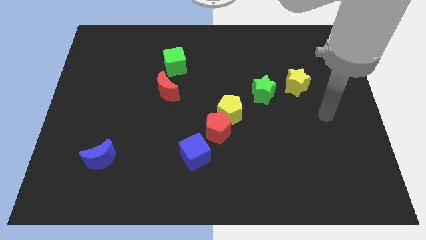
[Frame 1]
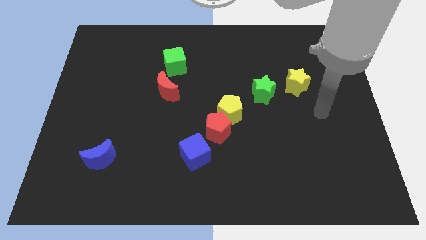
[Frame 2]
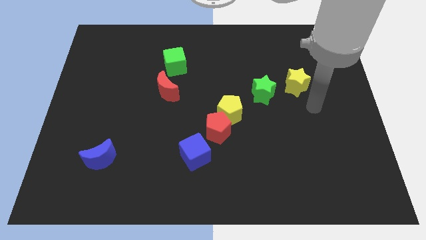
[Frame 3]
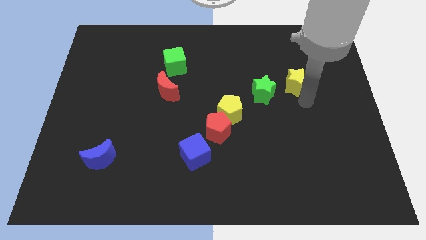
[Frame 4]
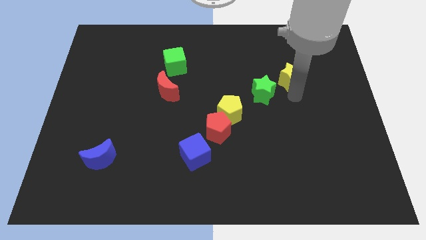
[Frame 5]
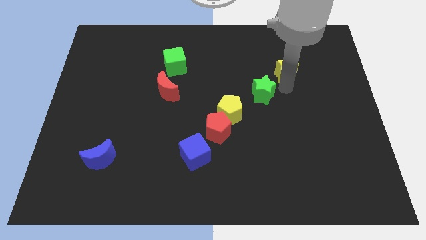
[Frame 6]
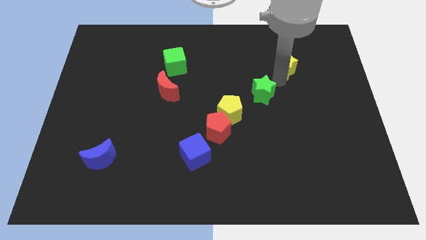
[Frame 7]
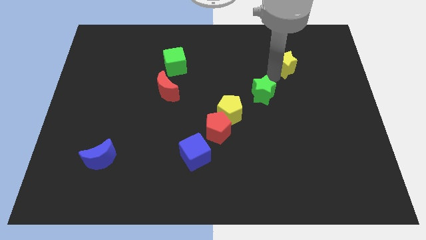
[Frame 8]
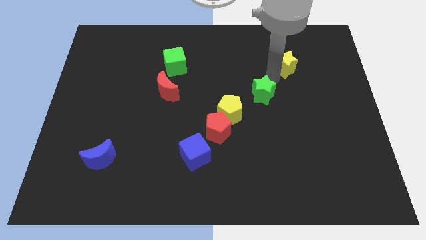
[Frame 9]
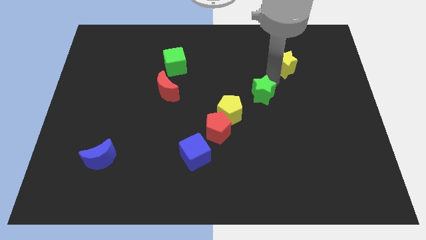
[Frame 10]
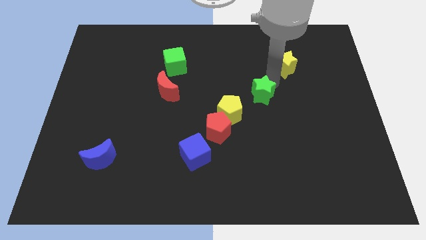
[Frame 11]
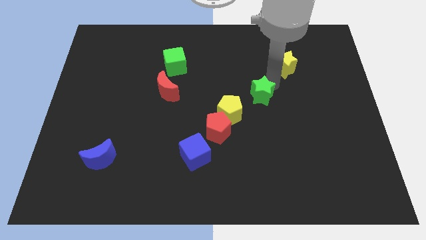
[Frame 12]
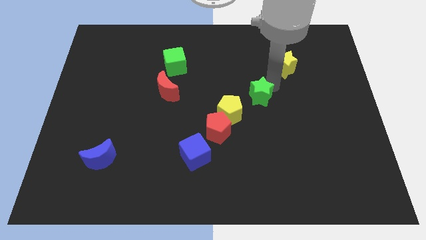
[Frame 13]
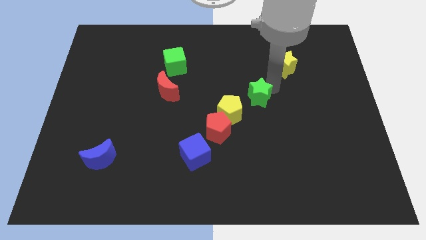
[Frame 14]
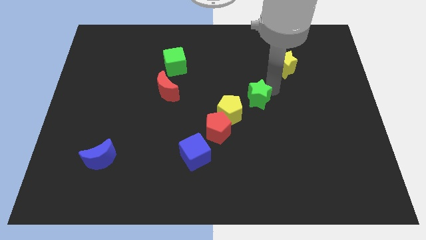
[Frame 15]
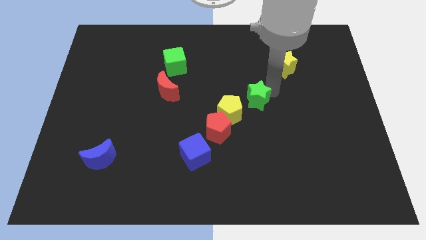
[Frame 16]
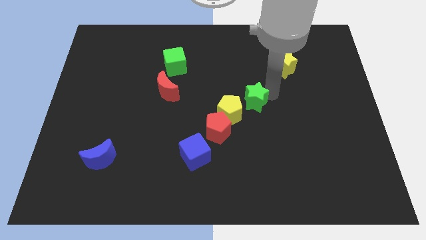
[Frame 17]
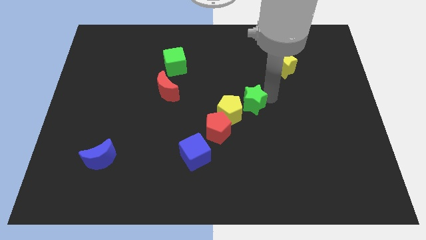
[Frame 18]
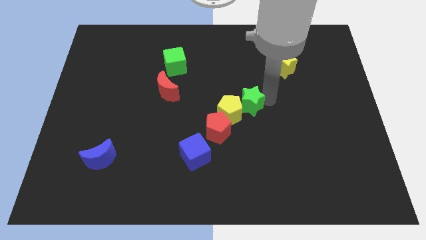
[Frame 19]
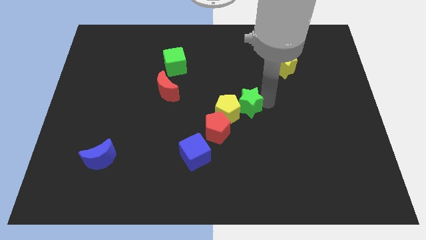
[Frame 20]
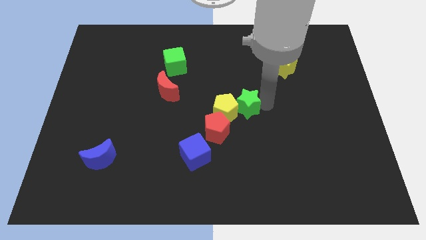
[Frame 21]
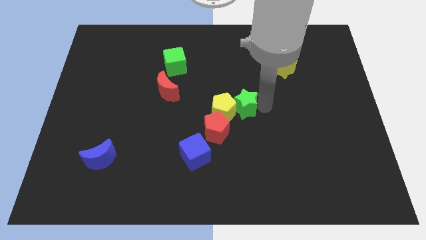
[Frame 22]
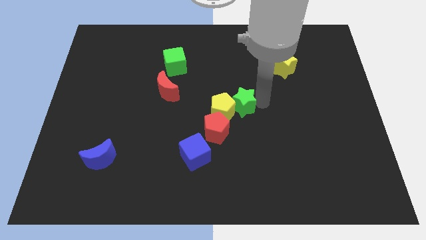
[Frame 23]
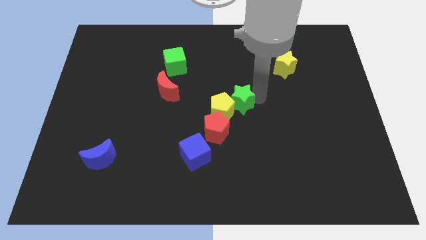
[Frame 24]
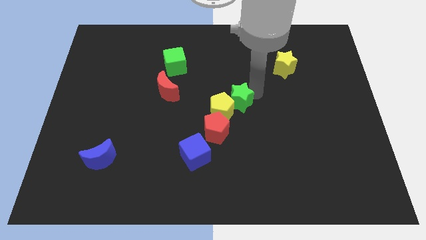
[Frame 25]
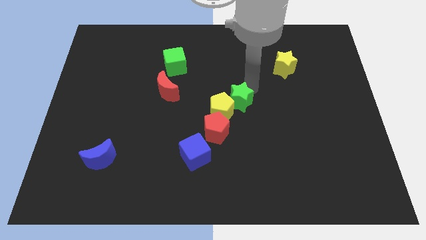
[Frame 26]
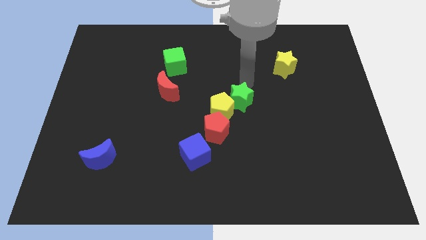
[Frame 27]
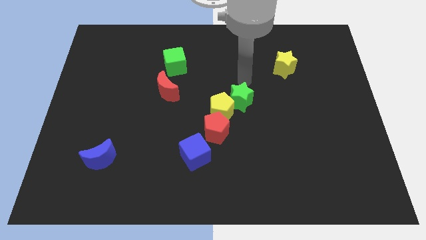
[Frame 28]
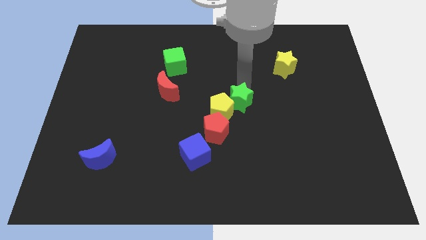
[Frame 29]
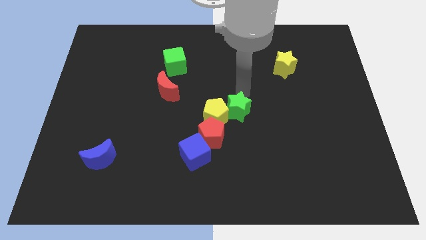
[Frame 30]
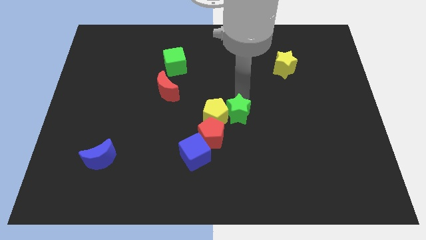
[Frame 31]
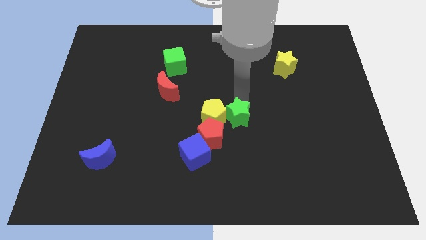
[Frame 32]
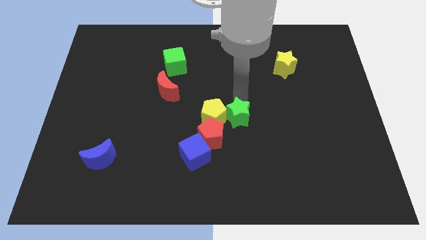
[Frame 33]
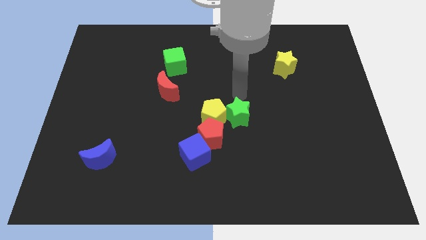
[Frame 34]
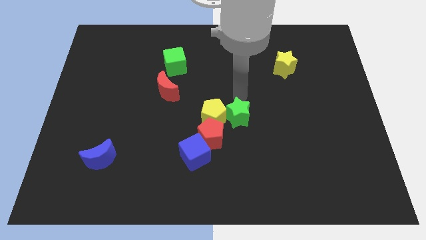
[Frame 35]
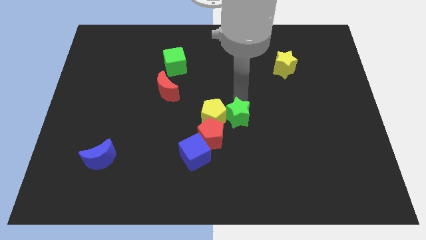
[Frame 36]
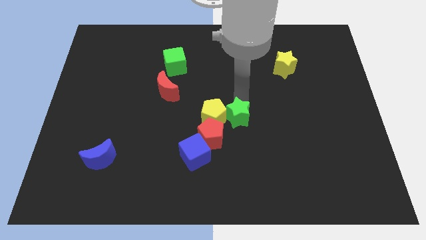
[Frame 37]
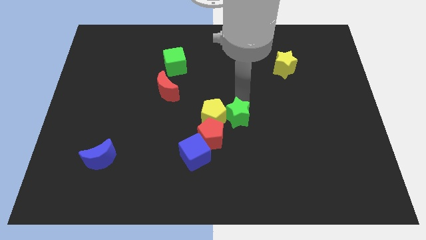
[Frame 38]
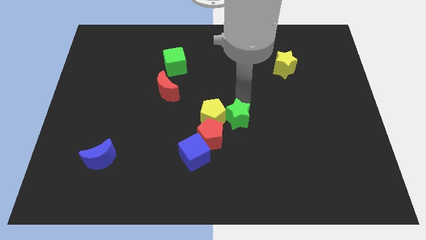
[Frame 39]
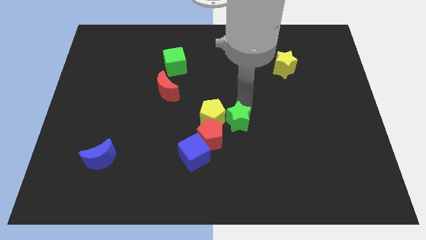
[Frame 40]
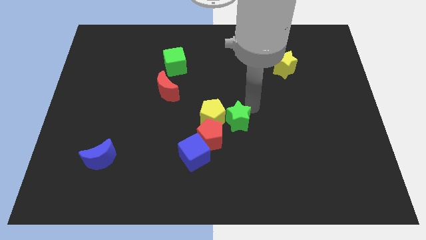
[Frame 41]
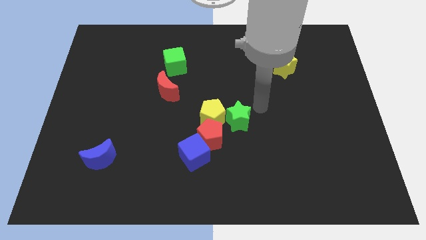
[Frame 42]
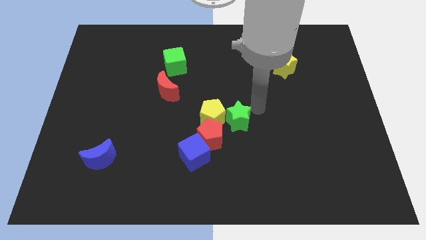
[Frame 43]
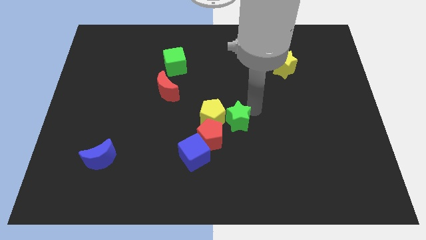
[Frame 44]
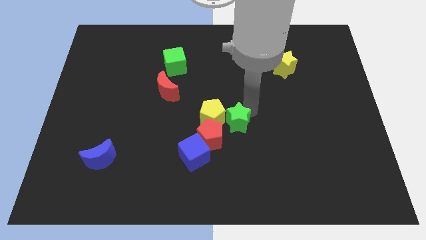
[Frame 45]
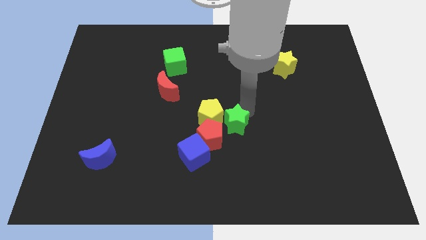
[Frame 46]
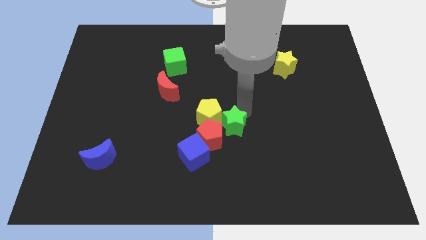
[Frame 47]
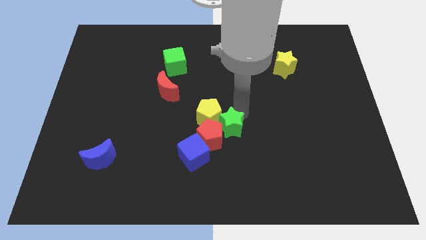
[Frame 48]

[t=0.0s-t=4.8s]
push the green star to the red pentagon

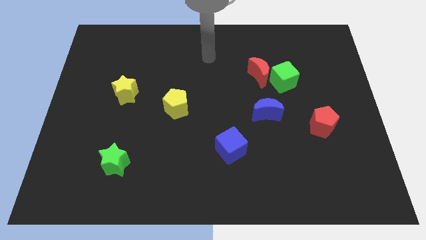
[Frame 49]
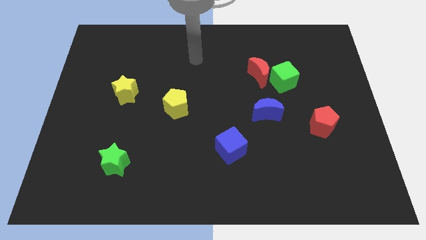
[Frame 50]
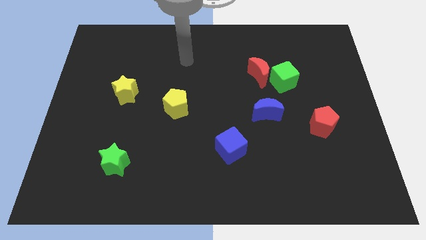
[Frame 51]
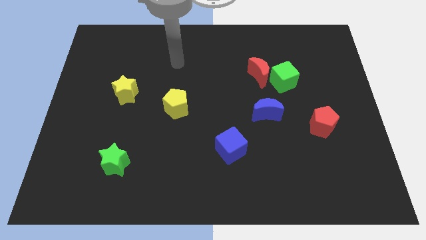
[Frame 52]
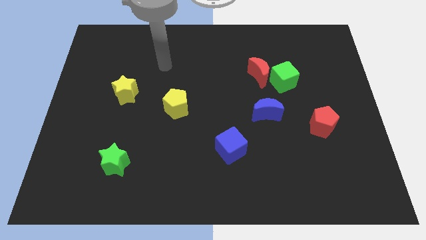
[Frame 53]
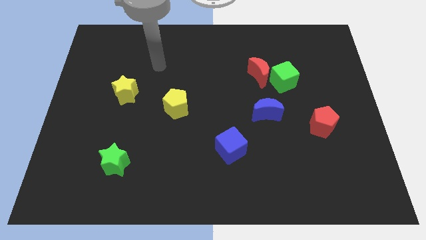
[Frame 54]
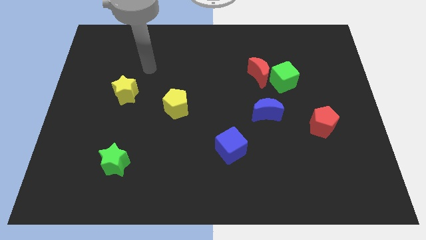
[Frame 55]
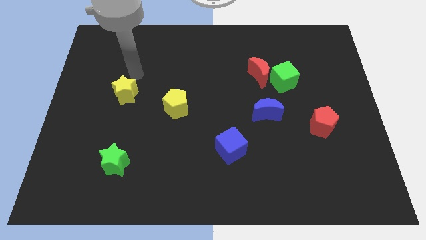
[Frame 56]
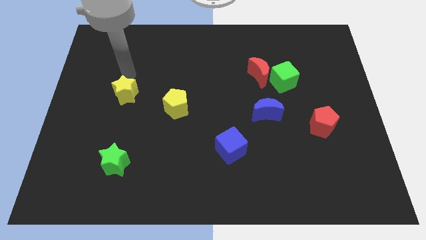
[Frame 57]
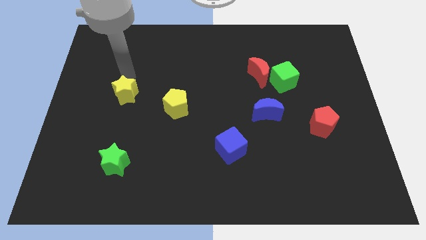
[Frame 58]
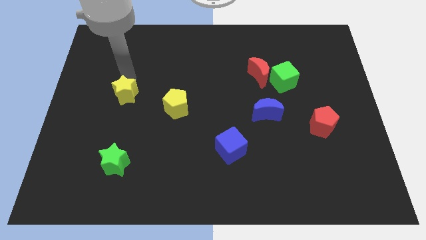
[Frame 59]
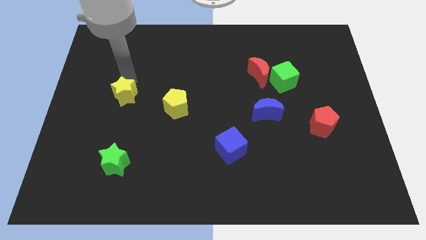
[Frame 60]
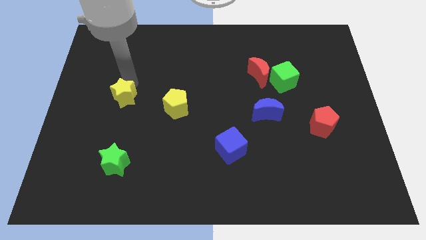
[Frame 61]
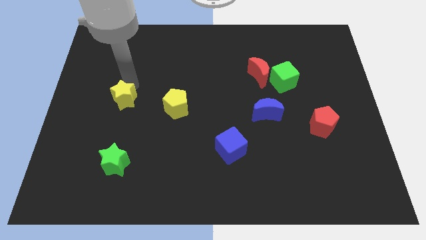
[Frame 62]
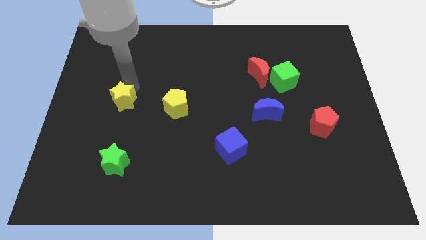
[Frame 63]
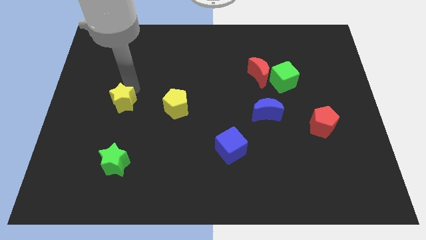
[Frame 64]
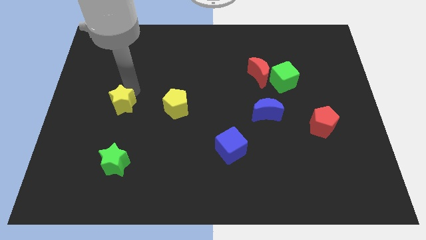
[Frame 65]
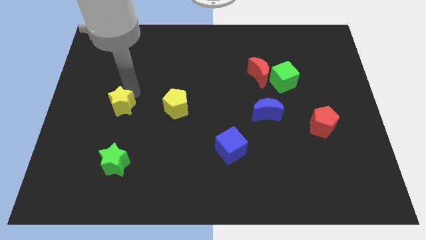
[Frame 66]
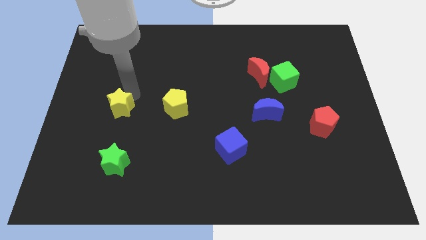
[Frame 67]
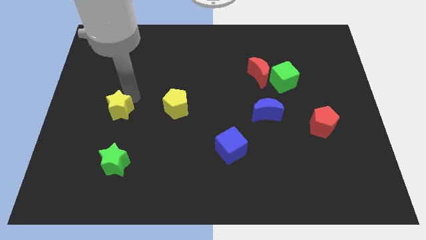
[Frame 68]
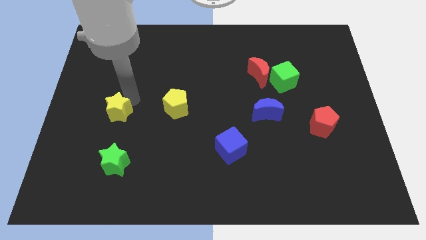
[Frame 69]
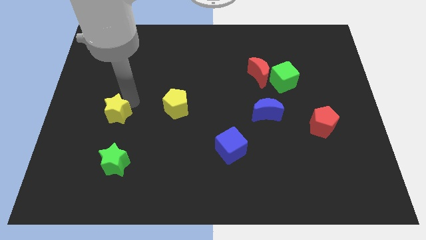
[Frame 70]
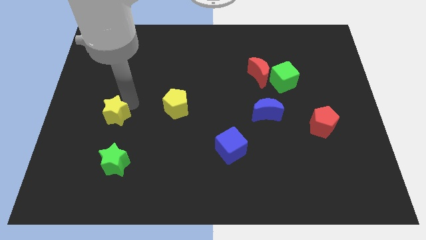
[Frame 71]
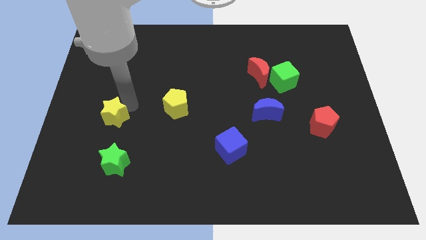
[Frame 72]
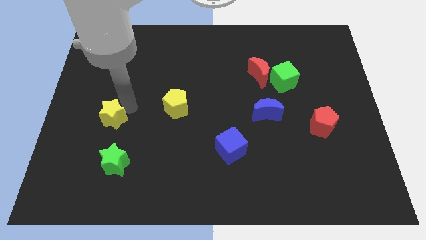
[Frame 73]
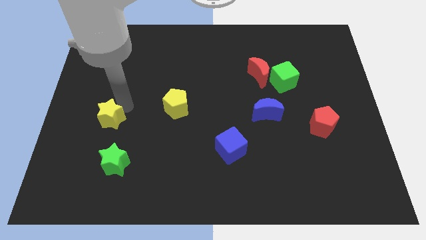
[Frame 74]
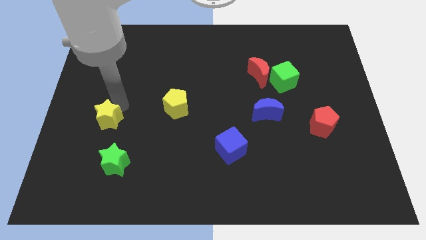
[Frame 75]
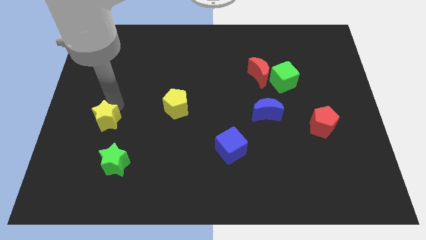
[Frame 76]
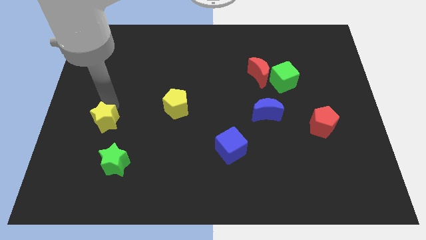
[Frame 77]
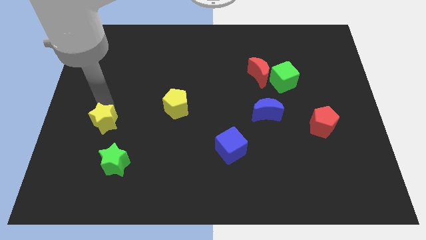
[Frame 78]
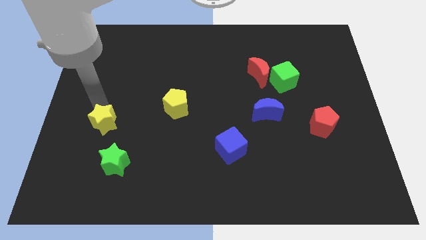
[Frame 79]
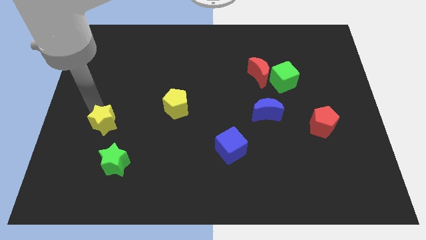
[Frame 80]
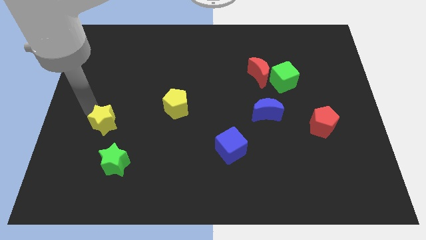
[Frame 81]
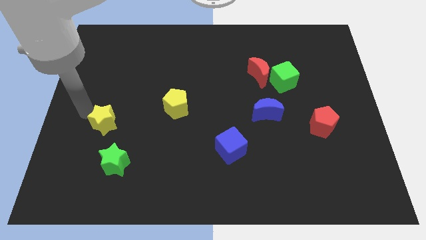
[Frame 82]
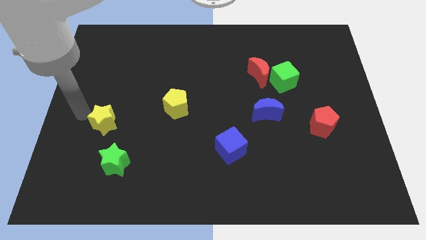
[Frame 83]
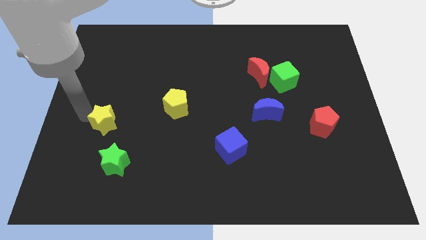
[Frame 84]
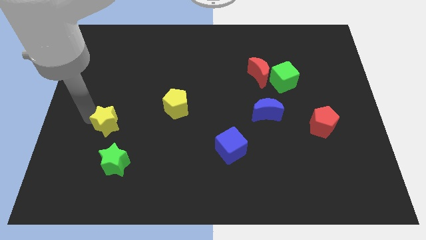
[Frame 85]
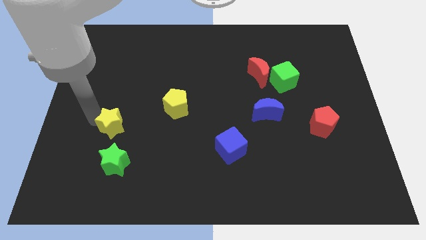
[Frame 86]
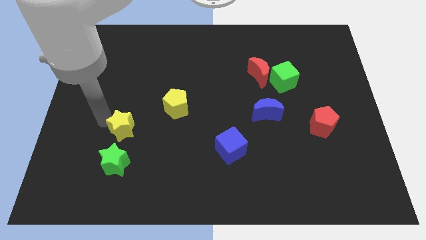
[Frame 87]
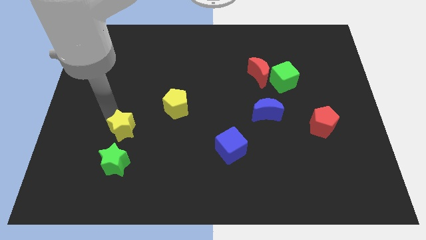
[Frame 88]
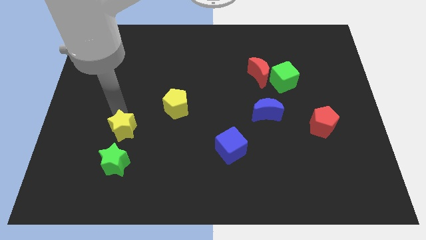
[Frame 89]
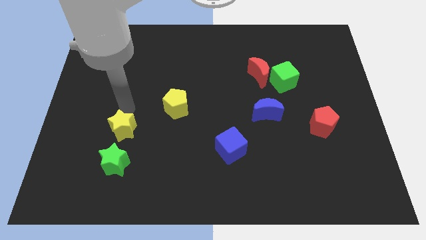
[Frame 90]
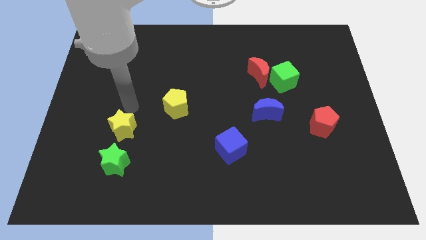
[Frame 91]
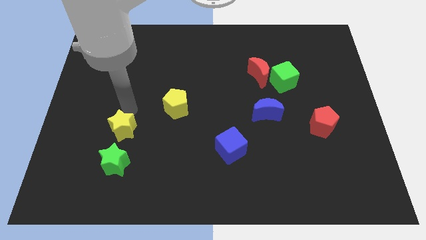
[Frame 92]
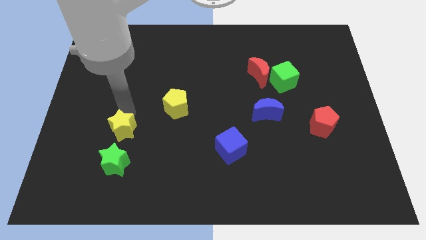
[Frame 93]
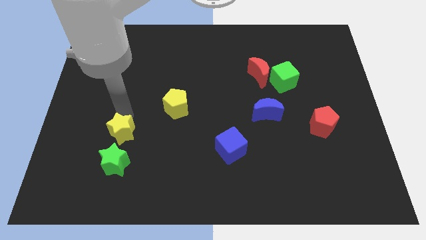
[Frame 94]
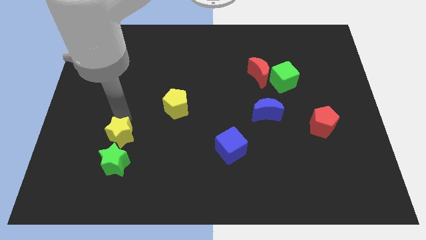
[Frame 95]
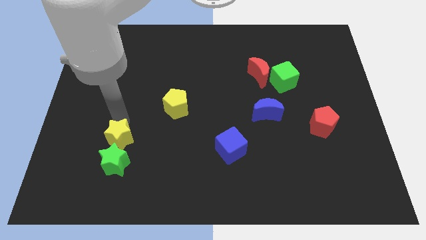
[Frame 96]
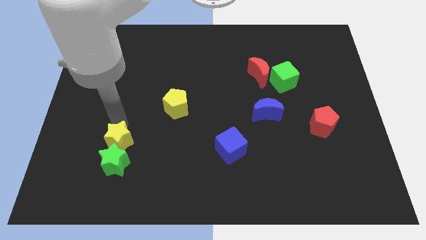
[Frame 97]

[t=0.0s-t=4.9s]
move the yellow star next to the green star
